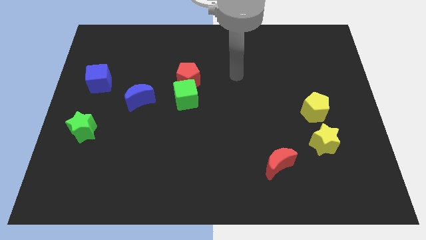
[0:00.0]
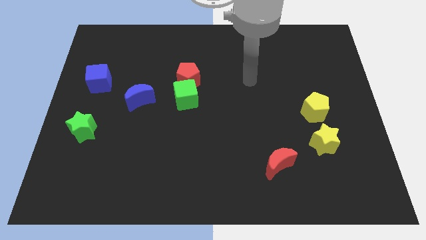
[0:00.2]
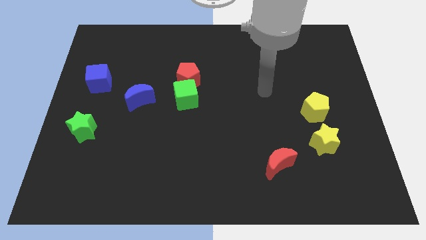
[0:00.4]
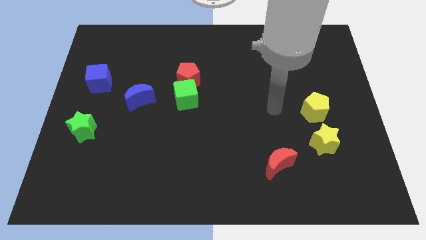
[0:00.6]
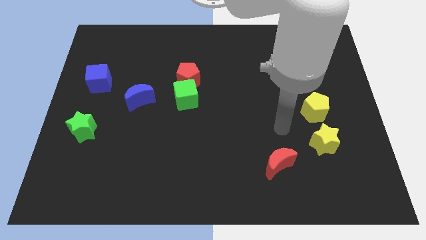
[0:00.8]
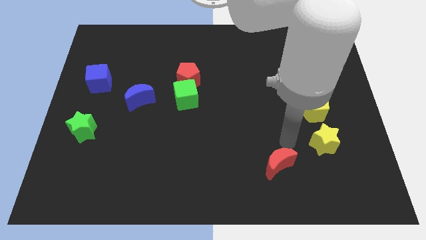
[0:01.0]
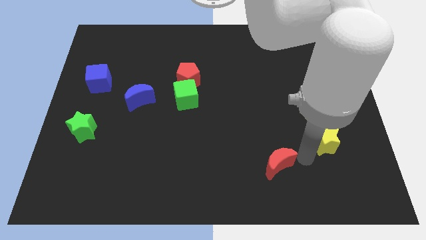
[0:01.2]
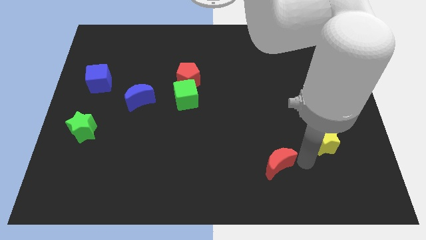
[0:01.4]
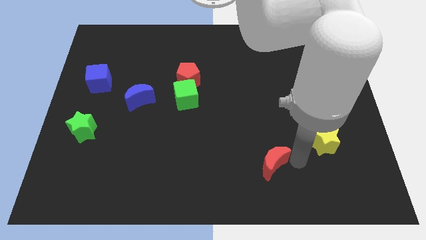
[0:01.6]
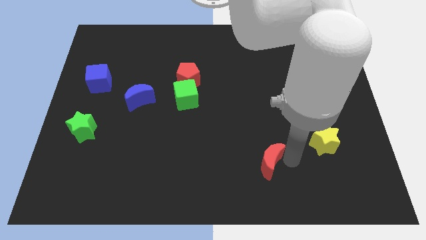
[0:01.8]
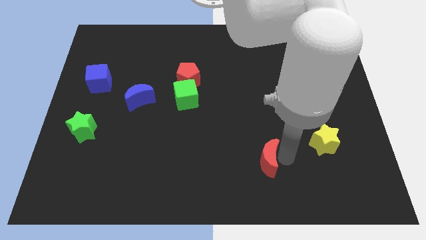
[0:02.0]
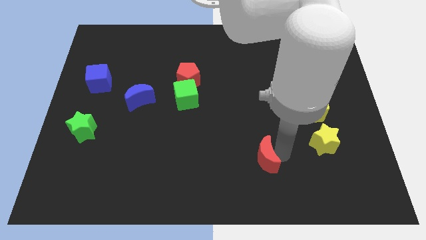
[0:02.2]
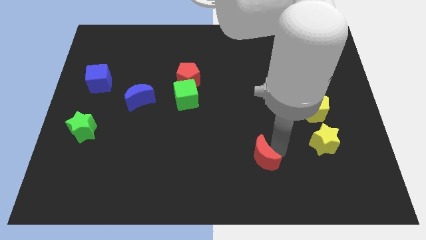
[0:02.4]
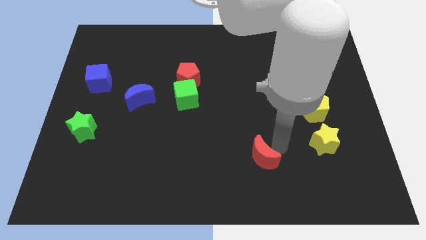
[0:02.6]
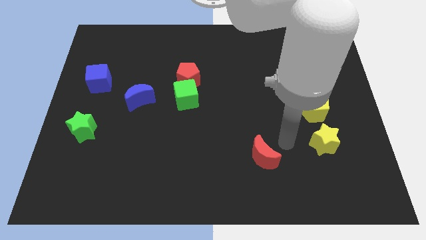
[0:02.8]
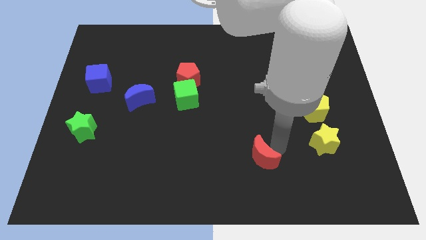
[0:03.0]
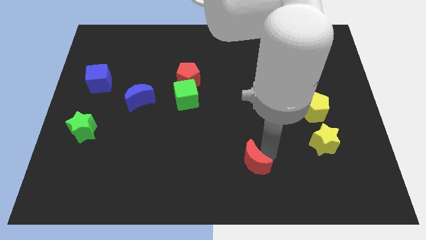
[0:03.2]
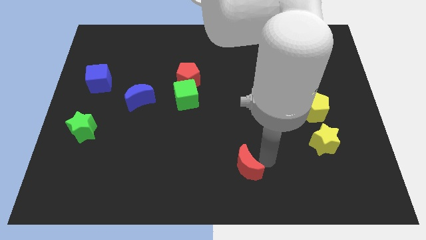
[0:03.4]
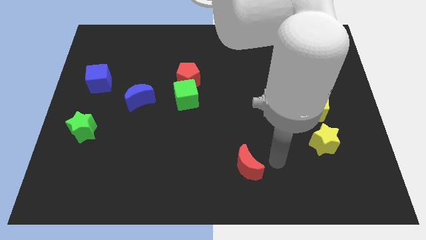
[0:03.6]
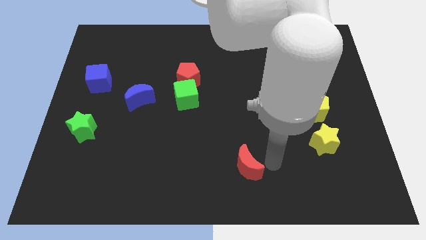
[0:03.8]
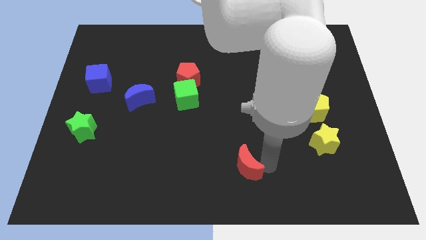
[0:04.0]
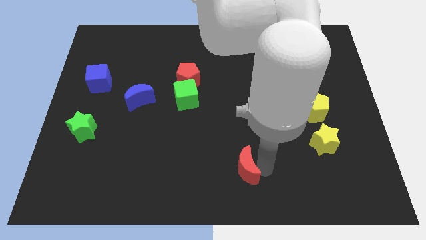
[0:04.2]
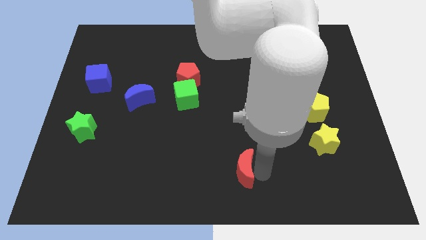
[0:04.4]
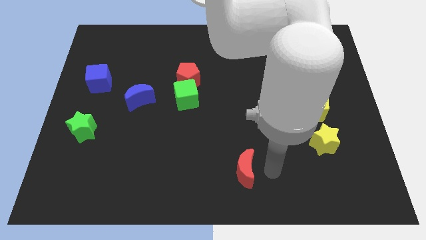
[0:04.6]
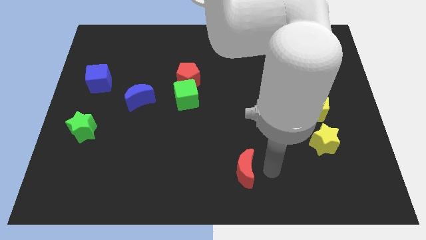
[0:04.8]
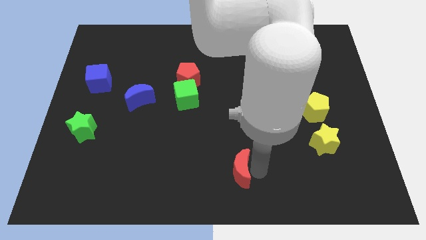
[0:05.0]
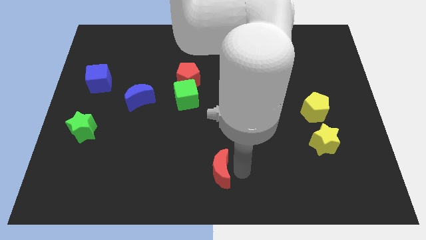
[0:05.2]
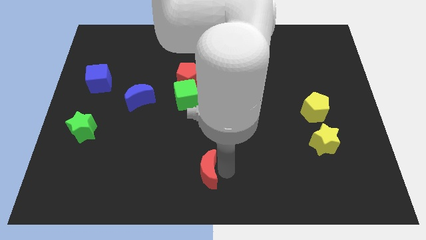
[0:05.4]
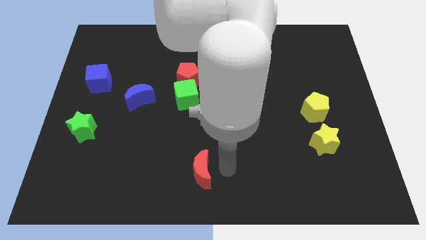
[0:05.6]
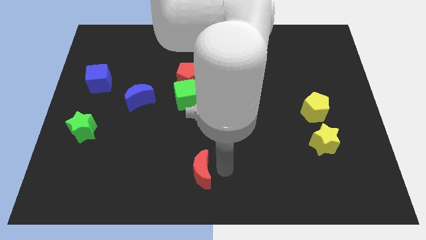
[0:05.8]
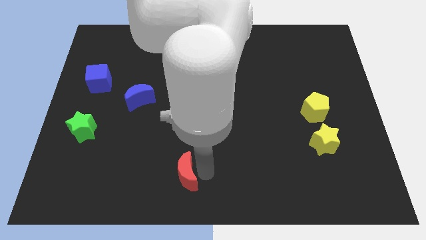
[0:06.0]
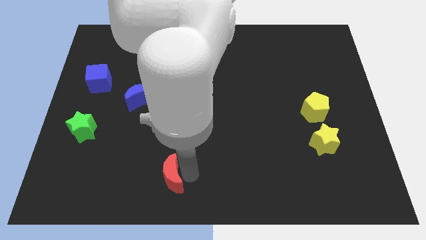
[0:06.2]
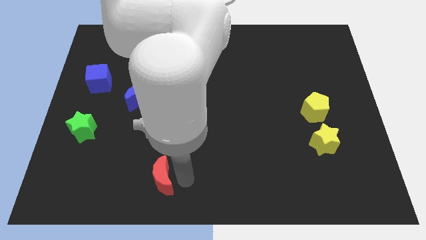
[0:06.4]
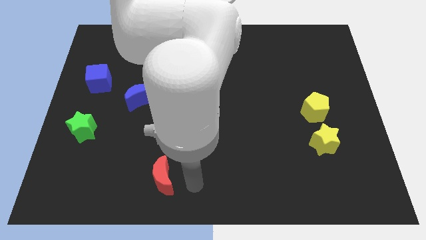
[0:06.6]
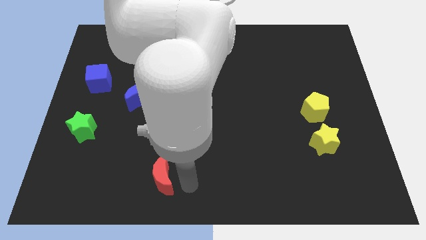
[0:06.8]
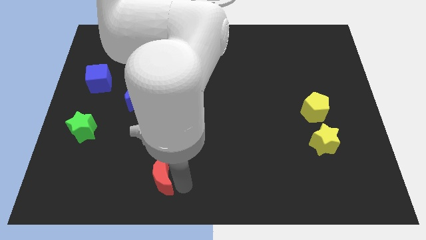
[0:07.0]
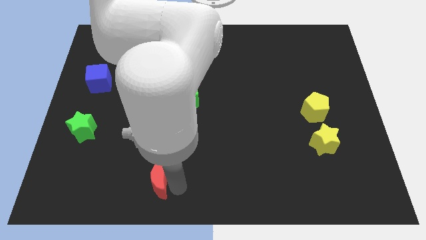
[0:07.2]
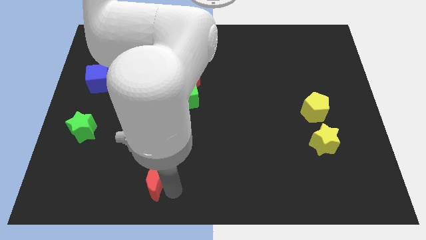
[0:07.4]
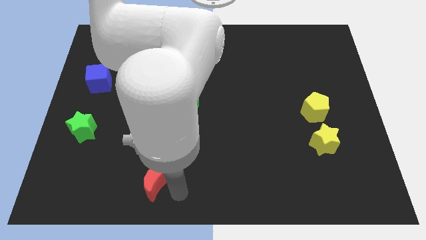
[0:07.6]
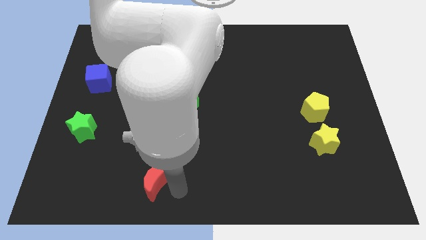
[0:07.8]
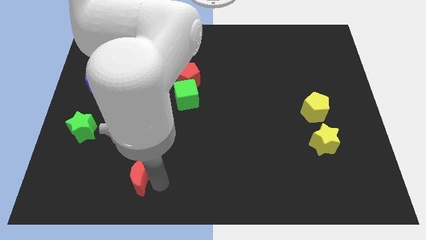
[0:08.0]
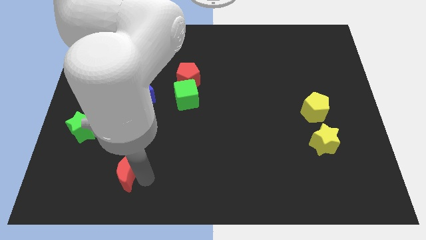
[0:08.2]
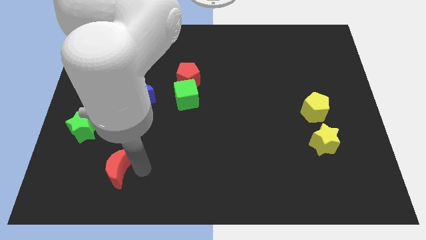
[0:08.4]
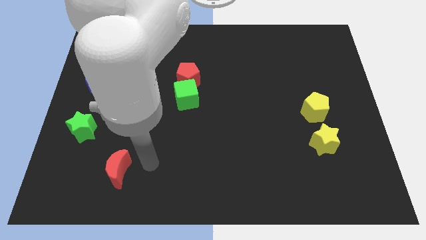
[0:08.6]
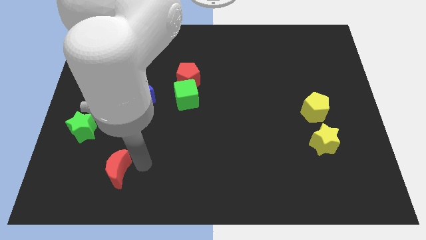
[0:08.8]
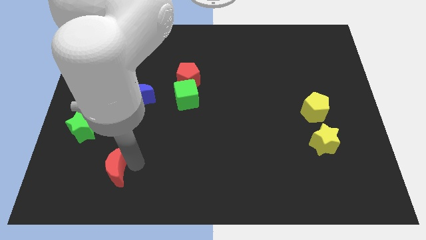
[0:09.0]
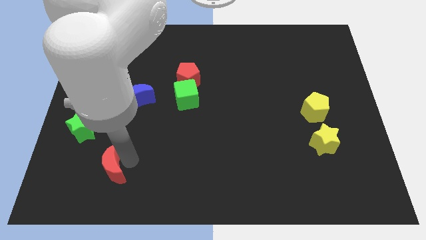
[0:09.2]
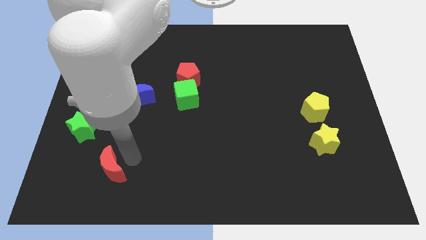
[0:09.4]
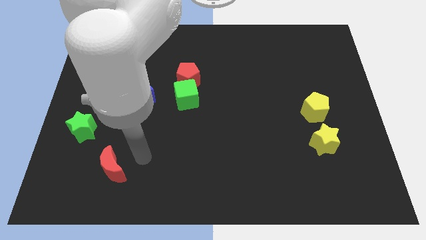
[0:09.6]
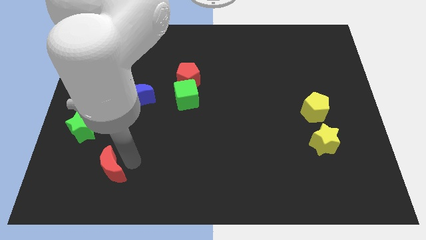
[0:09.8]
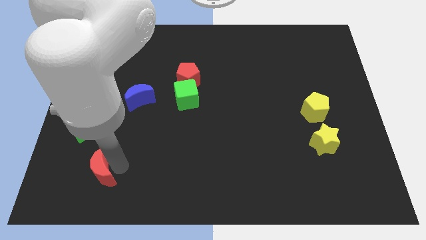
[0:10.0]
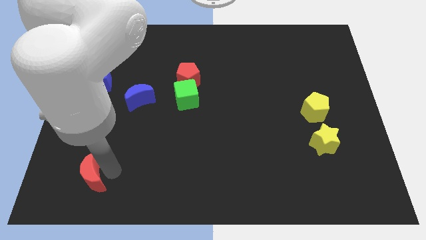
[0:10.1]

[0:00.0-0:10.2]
move the red moon below the green star

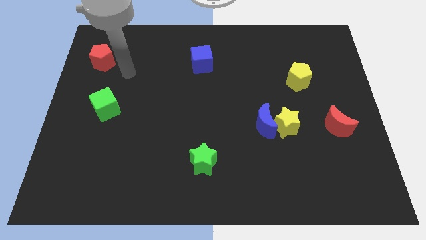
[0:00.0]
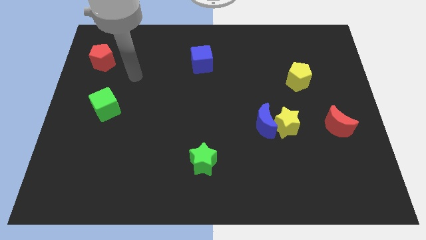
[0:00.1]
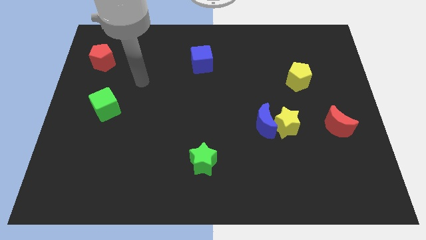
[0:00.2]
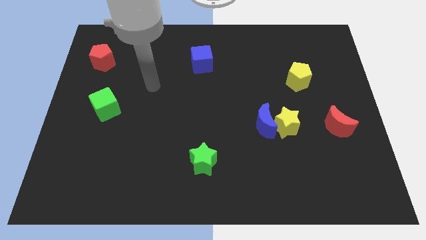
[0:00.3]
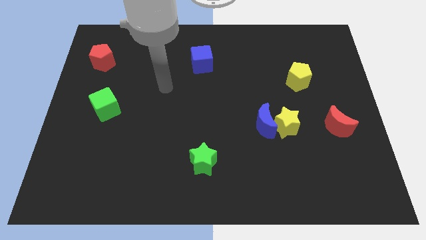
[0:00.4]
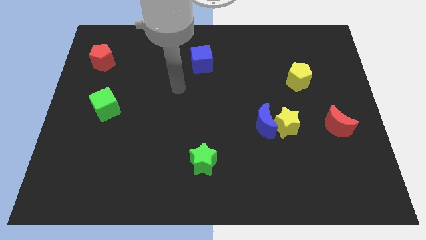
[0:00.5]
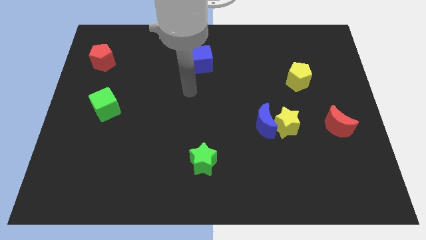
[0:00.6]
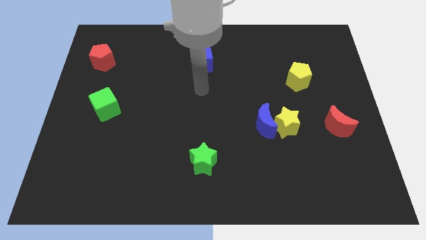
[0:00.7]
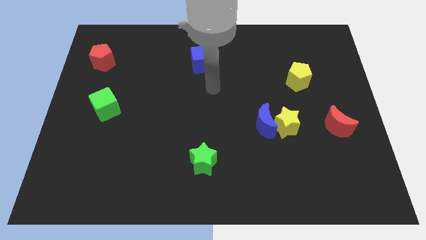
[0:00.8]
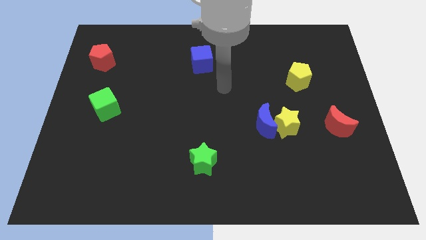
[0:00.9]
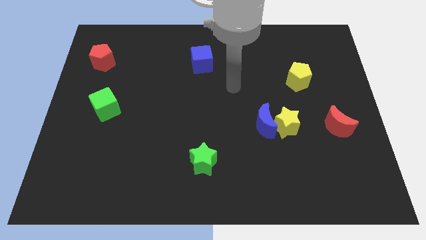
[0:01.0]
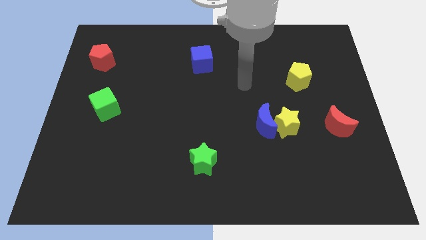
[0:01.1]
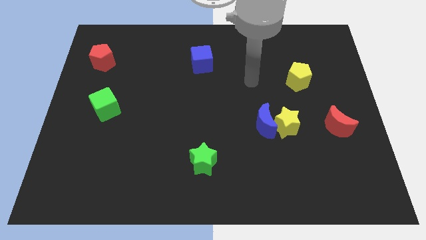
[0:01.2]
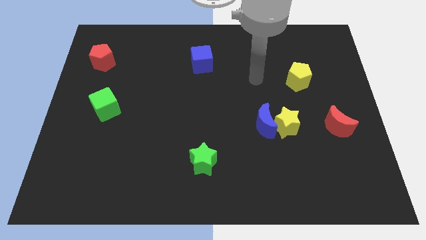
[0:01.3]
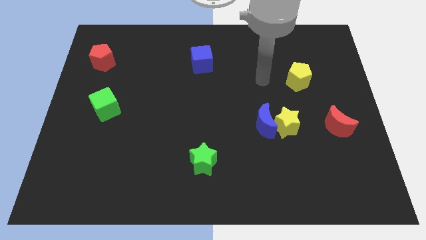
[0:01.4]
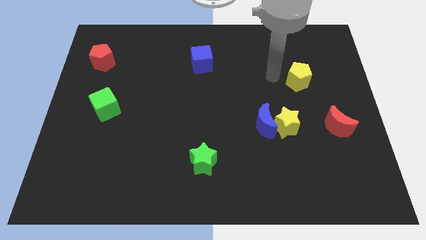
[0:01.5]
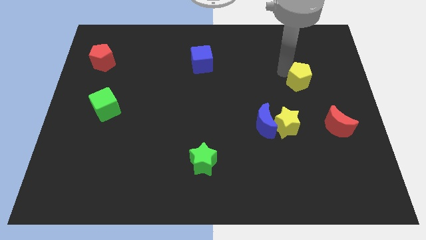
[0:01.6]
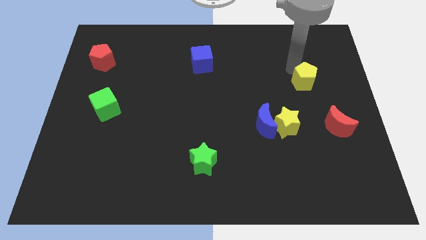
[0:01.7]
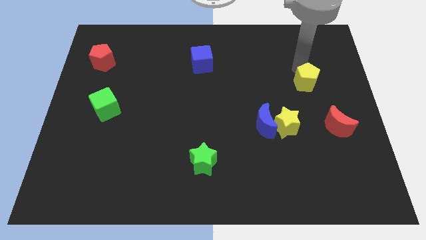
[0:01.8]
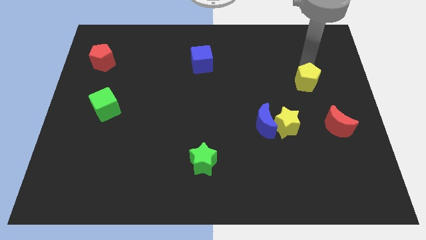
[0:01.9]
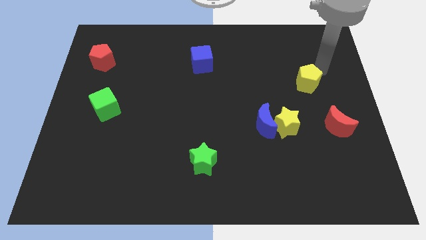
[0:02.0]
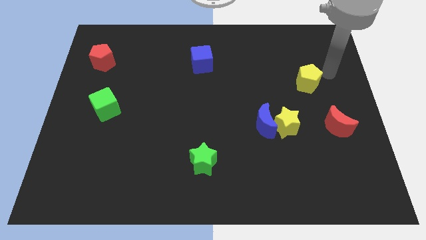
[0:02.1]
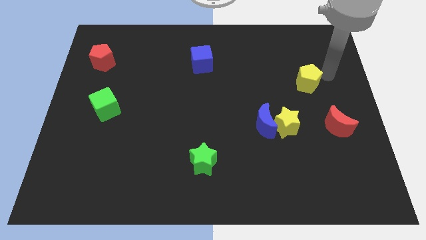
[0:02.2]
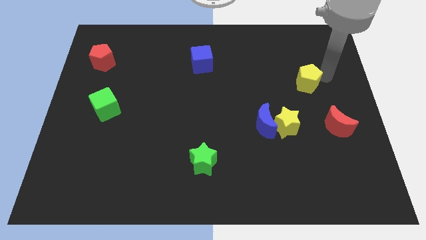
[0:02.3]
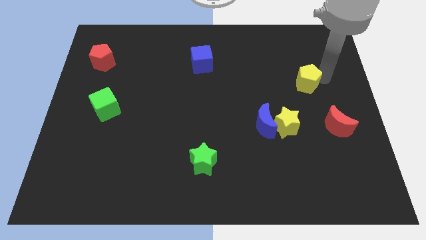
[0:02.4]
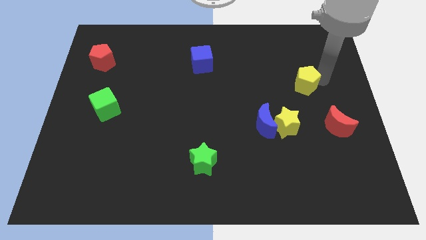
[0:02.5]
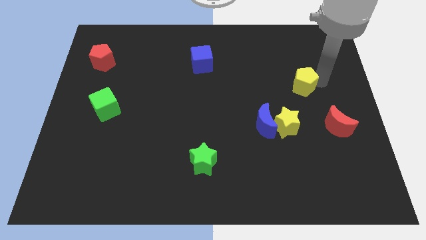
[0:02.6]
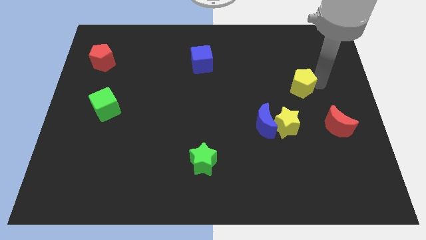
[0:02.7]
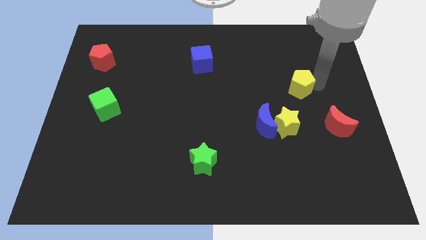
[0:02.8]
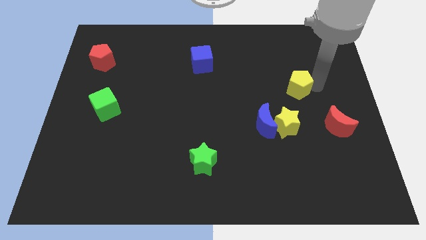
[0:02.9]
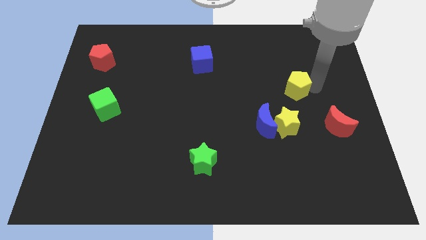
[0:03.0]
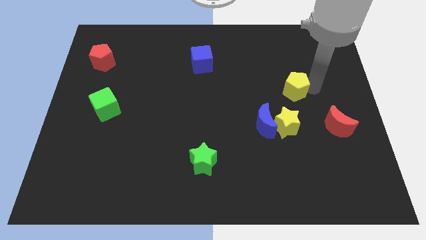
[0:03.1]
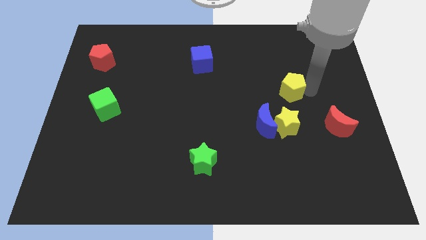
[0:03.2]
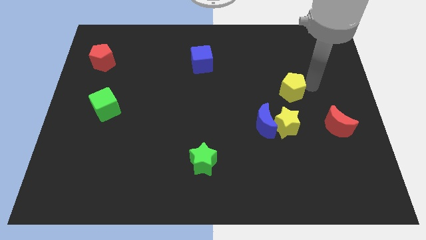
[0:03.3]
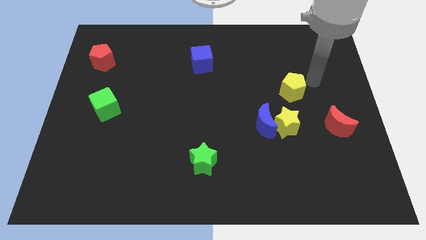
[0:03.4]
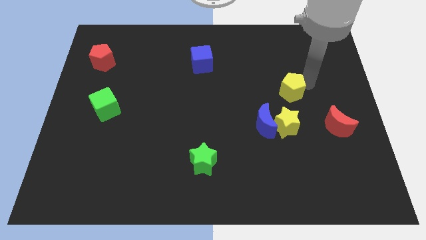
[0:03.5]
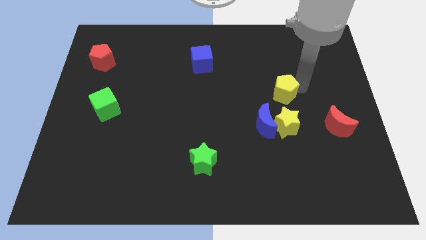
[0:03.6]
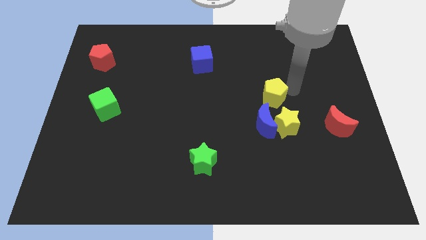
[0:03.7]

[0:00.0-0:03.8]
push the yellow pentagon diagonally up and to the left of the yellow star
